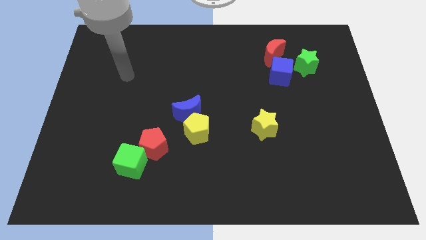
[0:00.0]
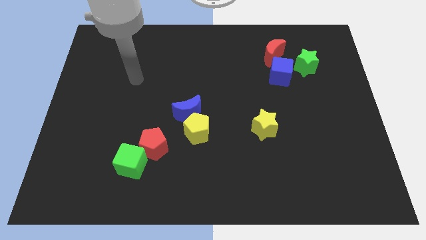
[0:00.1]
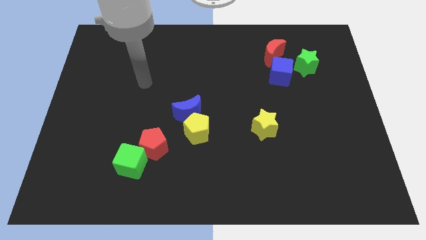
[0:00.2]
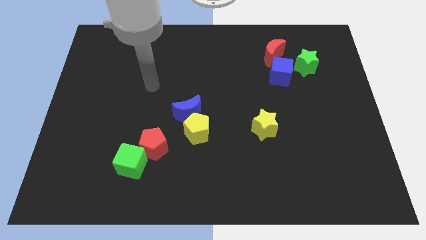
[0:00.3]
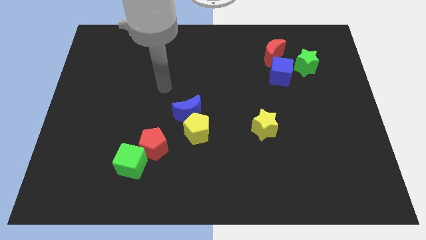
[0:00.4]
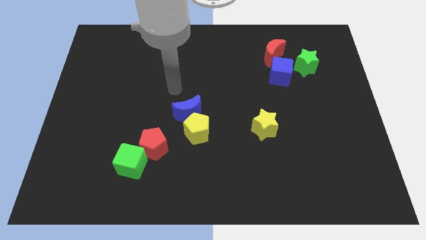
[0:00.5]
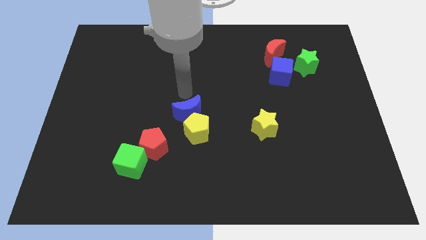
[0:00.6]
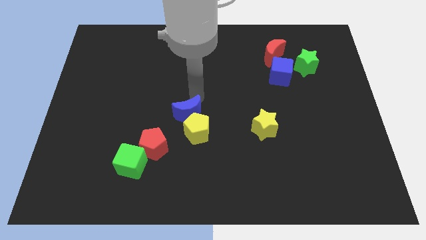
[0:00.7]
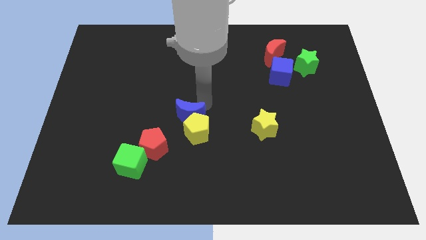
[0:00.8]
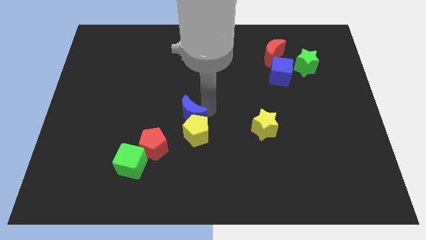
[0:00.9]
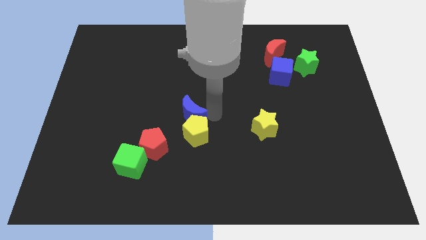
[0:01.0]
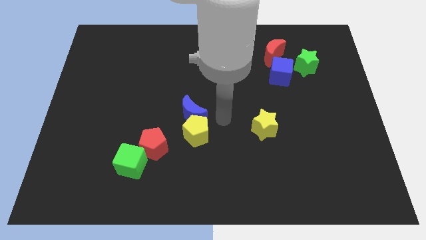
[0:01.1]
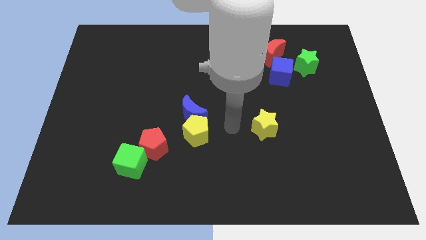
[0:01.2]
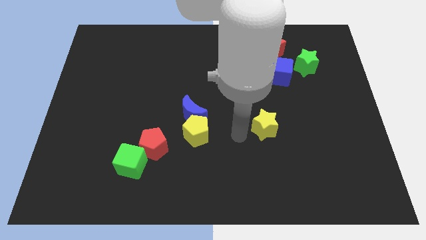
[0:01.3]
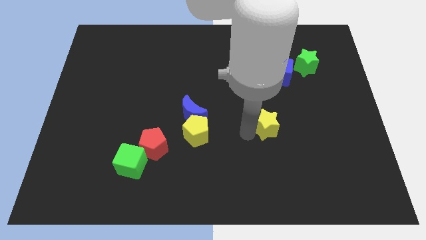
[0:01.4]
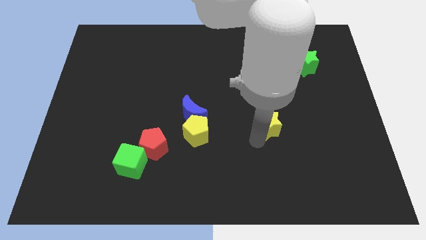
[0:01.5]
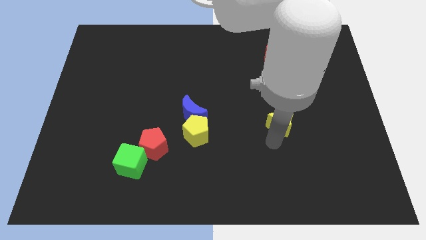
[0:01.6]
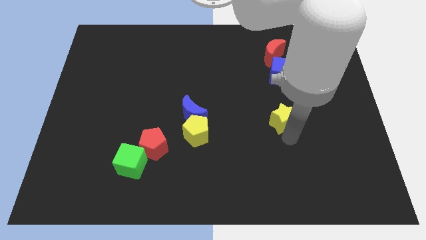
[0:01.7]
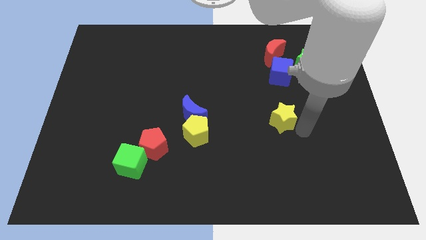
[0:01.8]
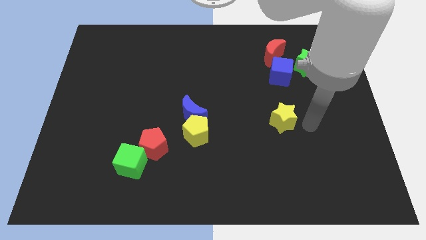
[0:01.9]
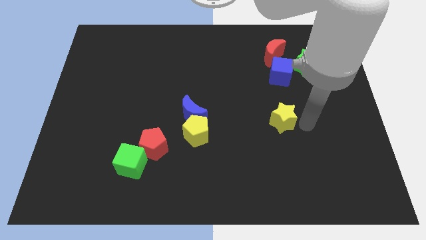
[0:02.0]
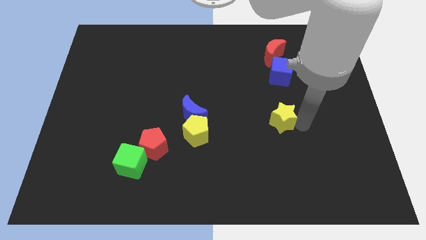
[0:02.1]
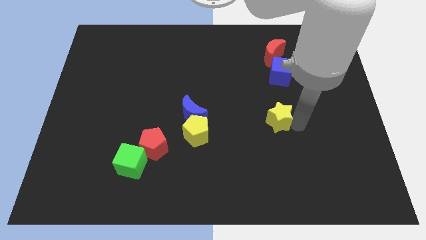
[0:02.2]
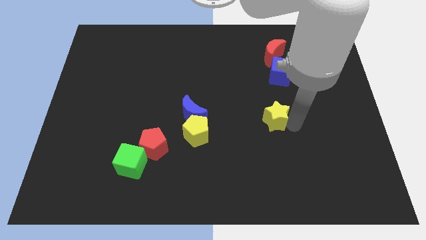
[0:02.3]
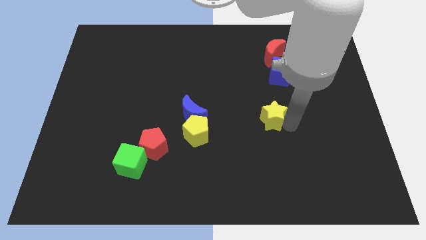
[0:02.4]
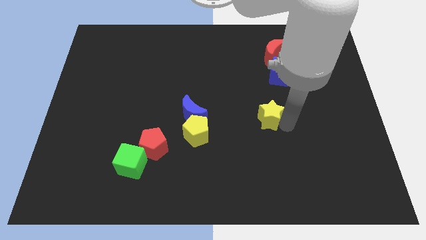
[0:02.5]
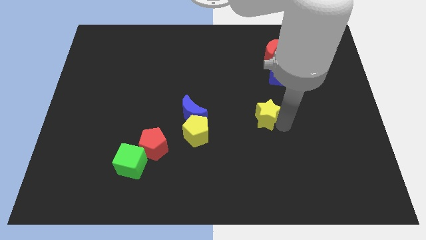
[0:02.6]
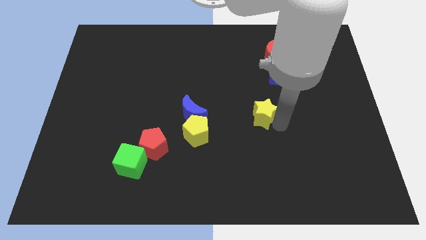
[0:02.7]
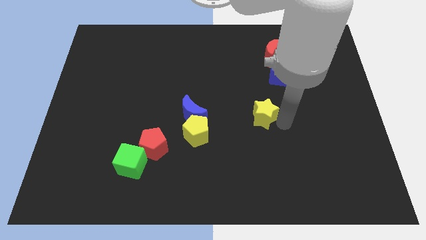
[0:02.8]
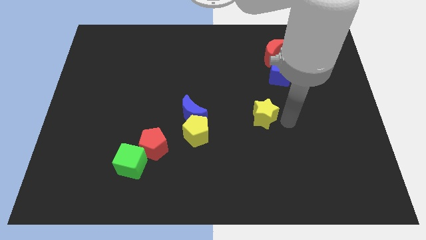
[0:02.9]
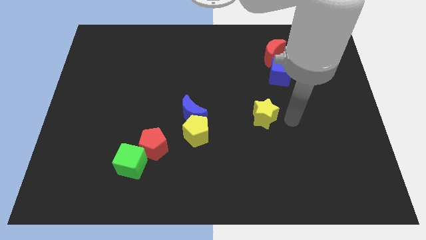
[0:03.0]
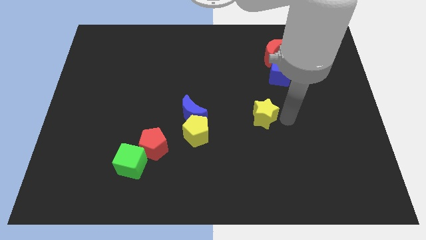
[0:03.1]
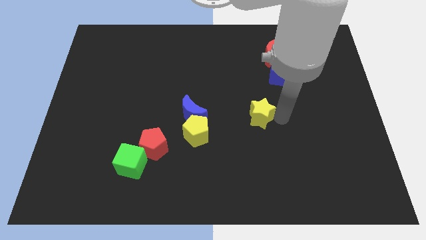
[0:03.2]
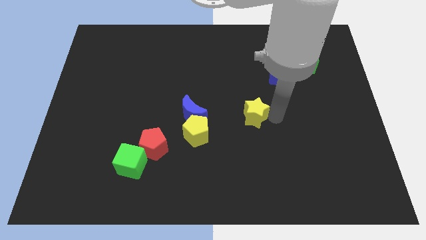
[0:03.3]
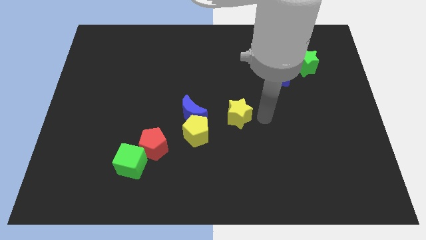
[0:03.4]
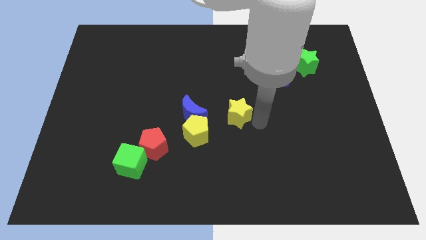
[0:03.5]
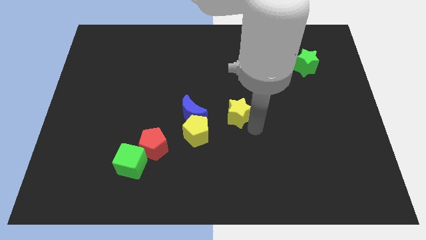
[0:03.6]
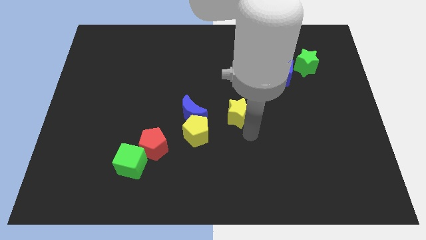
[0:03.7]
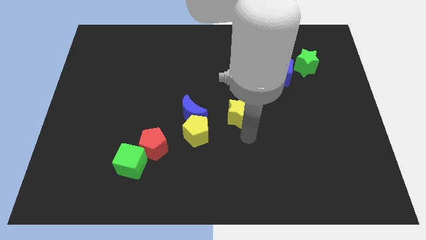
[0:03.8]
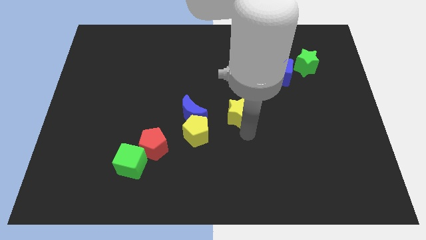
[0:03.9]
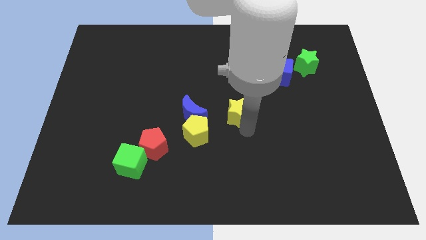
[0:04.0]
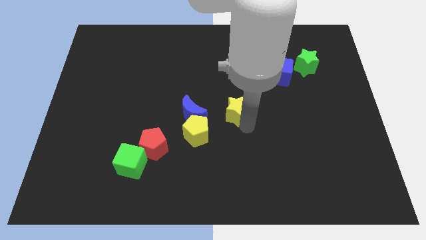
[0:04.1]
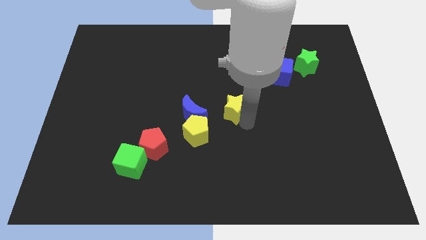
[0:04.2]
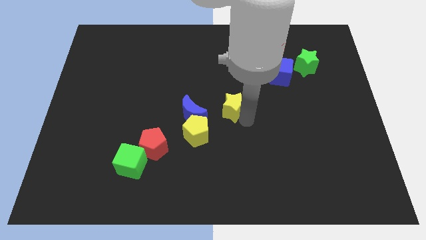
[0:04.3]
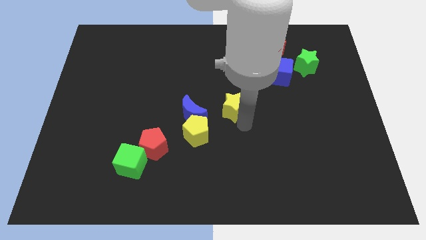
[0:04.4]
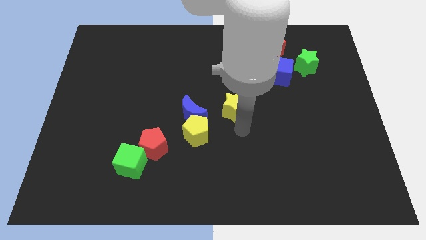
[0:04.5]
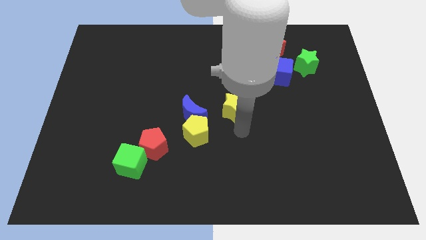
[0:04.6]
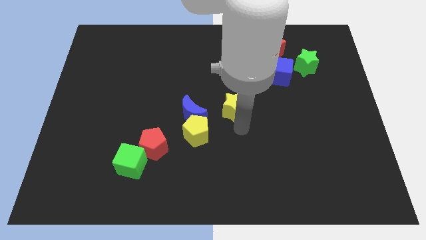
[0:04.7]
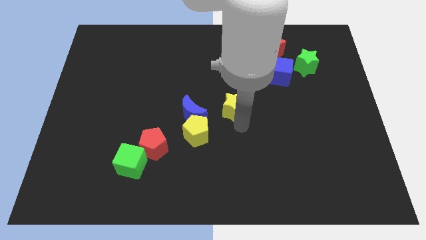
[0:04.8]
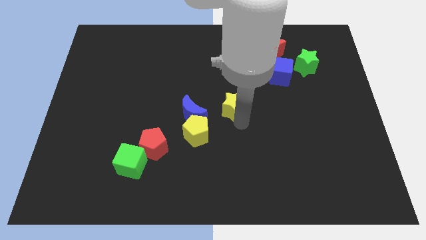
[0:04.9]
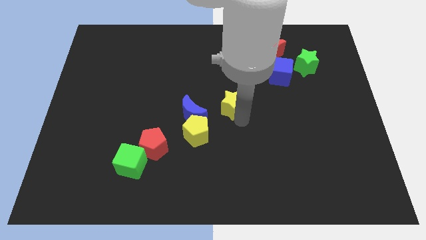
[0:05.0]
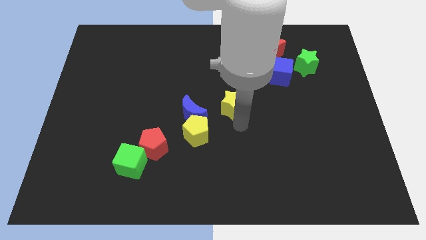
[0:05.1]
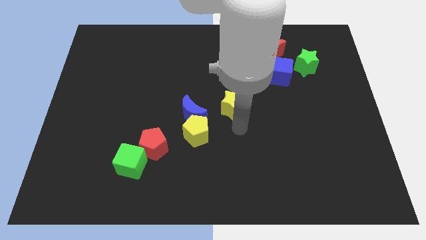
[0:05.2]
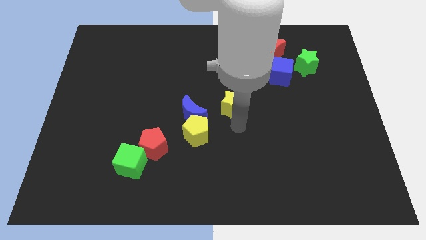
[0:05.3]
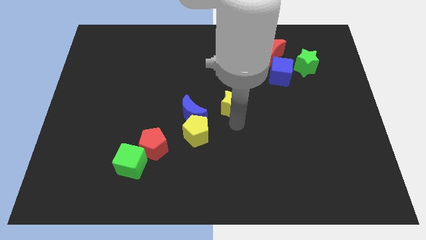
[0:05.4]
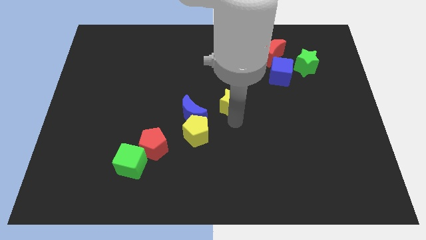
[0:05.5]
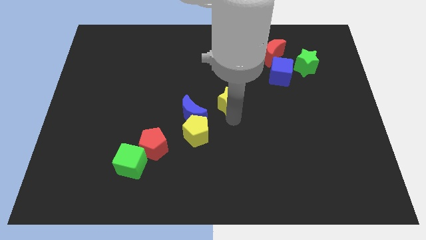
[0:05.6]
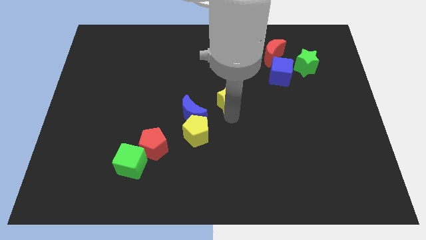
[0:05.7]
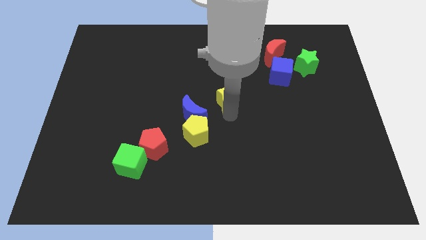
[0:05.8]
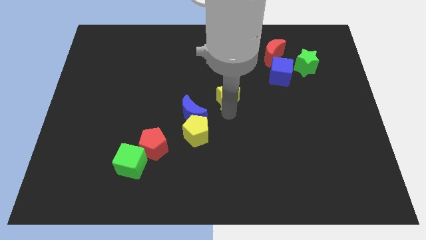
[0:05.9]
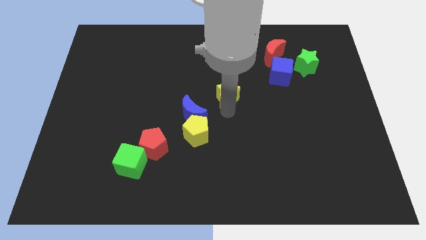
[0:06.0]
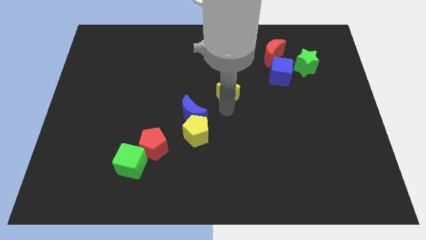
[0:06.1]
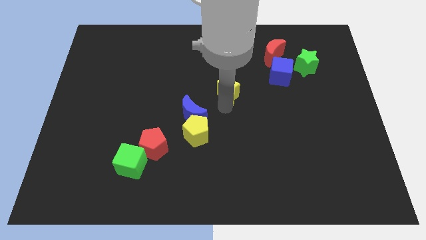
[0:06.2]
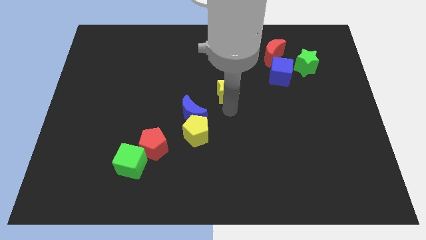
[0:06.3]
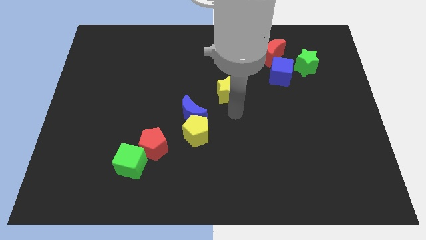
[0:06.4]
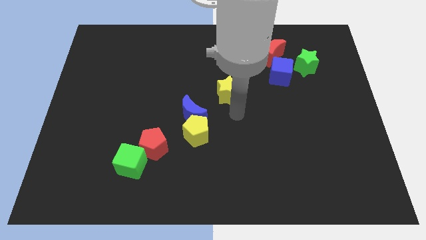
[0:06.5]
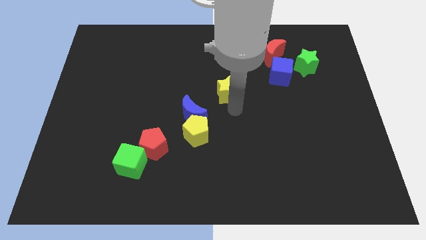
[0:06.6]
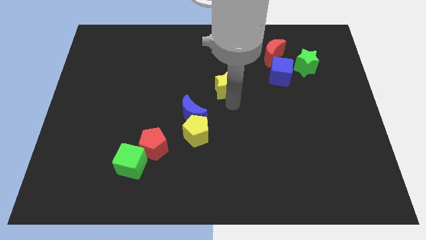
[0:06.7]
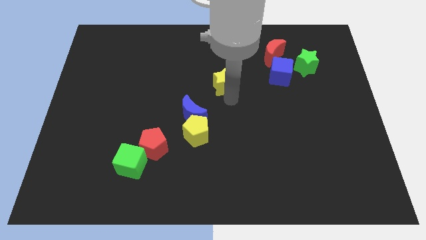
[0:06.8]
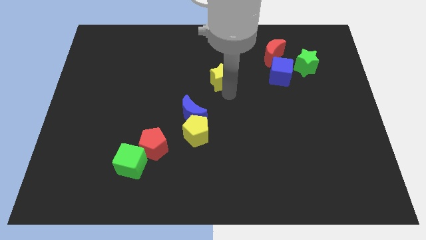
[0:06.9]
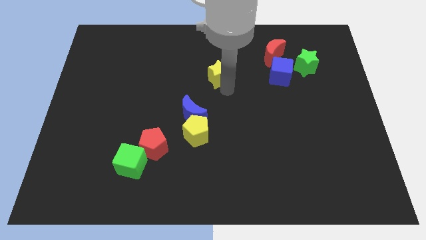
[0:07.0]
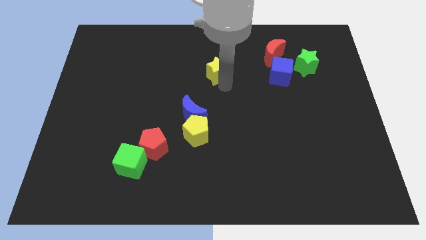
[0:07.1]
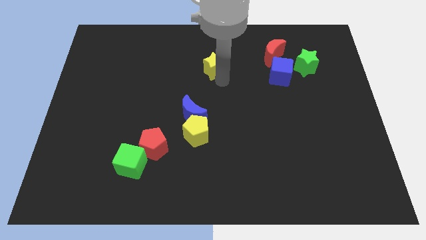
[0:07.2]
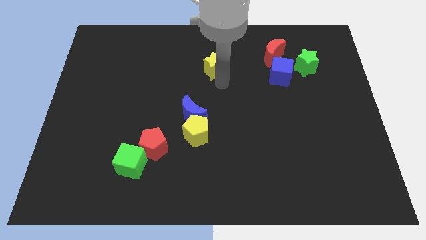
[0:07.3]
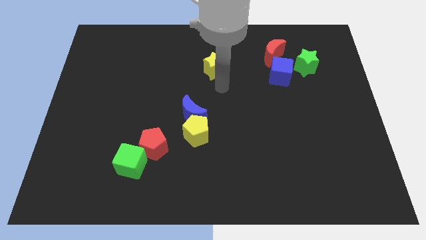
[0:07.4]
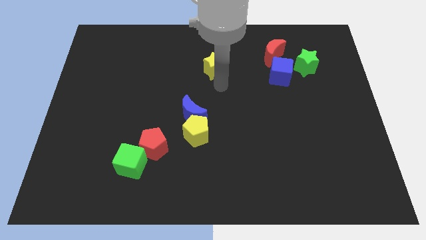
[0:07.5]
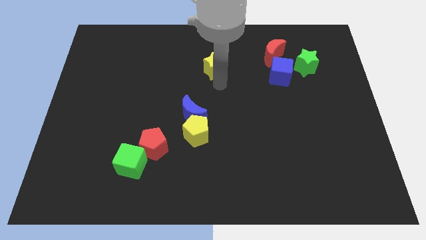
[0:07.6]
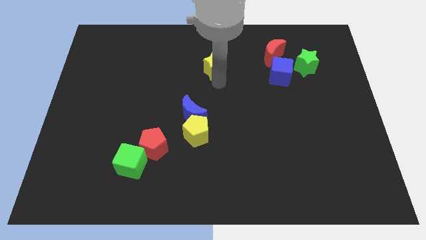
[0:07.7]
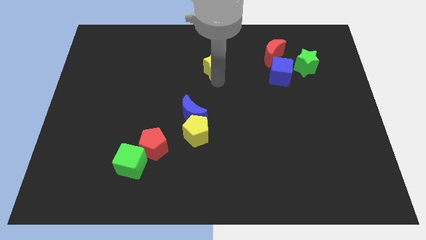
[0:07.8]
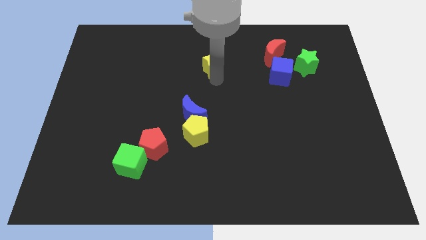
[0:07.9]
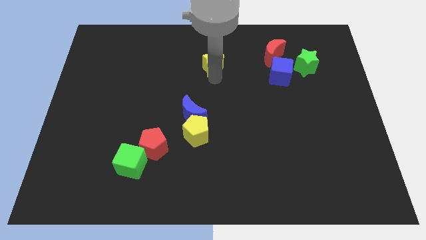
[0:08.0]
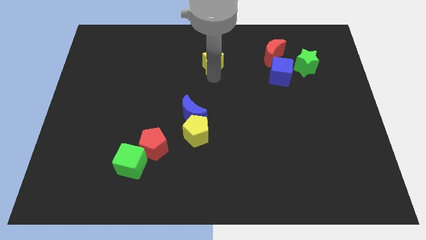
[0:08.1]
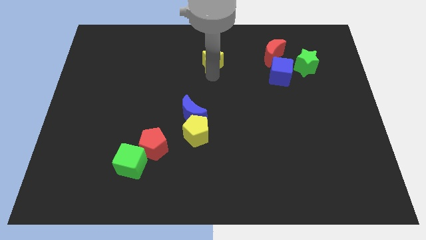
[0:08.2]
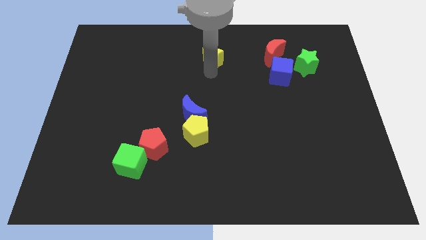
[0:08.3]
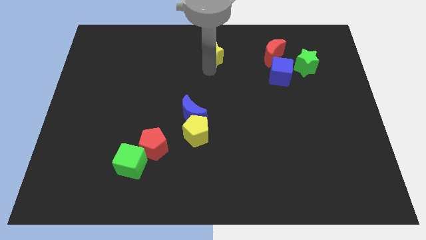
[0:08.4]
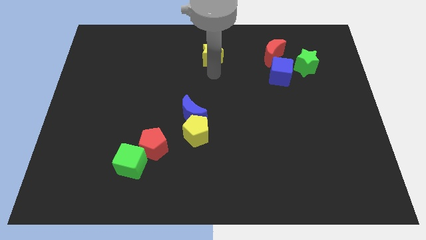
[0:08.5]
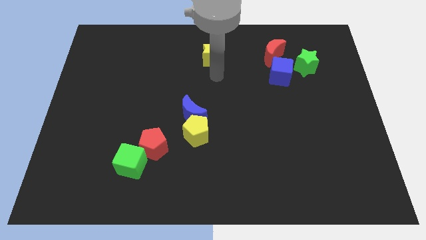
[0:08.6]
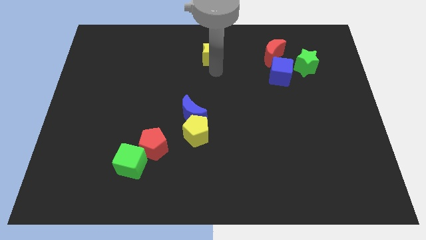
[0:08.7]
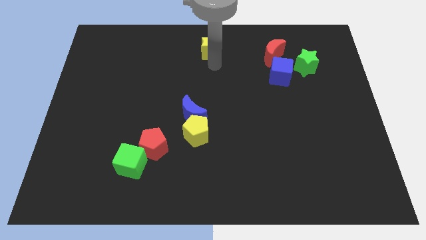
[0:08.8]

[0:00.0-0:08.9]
put the yellow star to the towards your base
